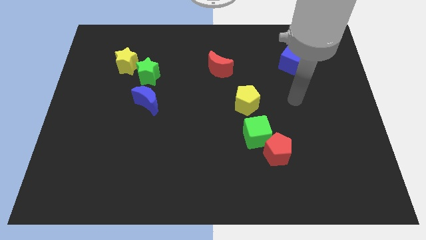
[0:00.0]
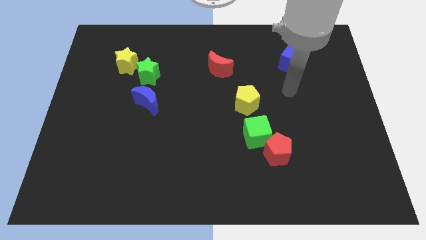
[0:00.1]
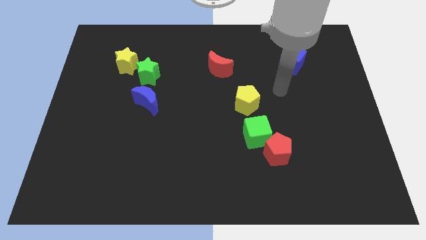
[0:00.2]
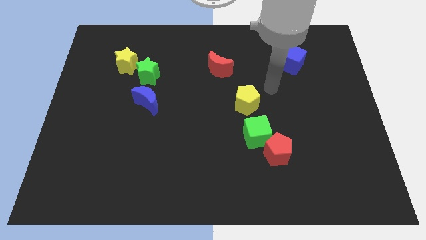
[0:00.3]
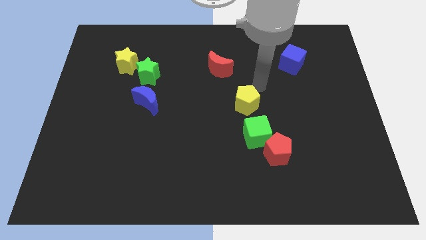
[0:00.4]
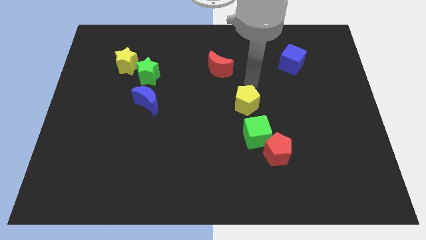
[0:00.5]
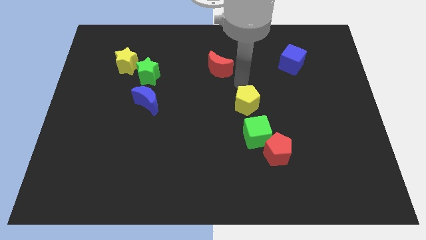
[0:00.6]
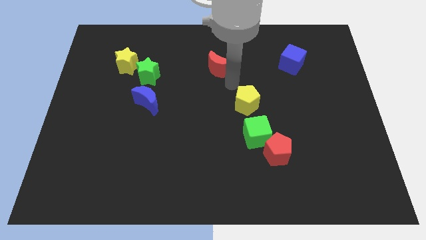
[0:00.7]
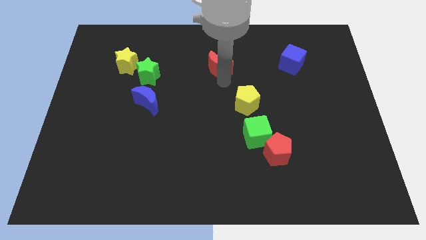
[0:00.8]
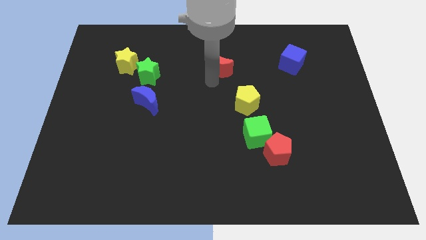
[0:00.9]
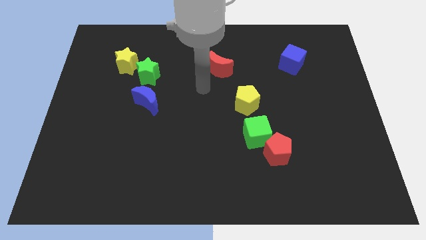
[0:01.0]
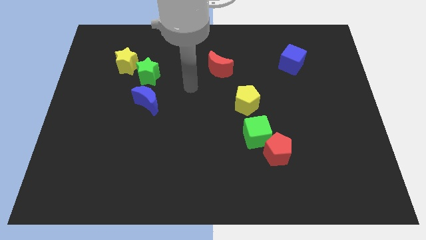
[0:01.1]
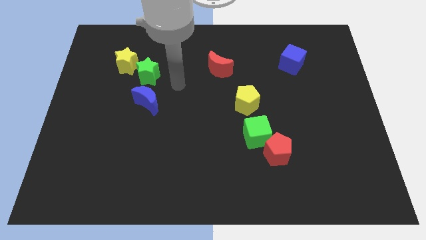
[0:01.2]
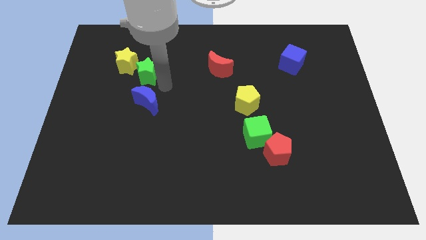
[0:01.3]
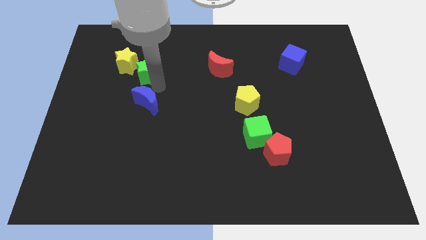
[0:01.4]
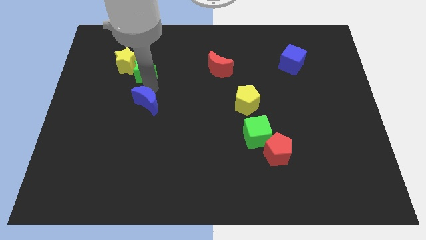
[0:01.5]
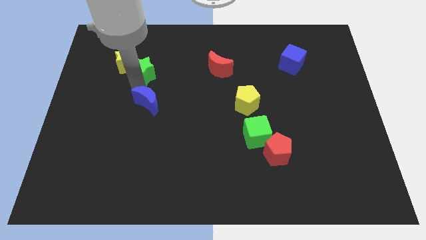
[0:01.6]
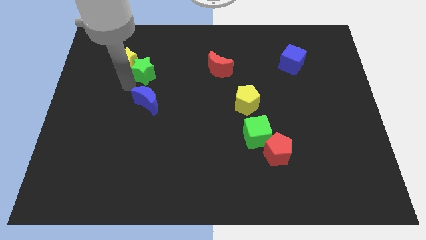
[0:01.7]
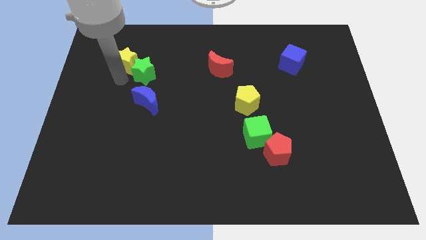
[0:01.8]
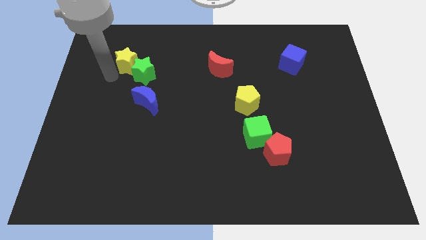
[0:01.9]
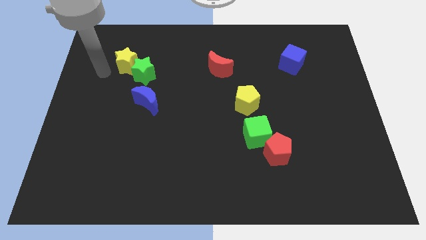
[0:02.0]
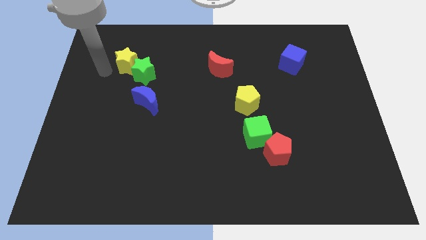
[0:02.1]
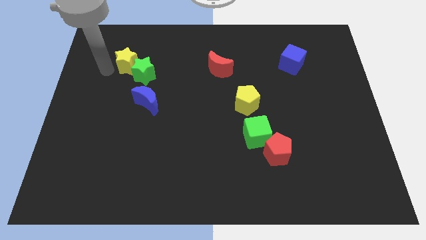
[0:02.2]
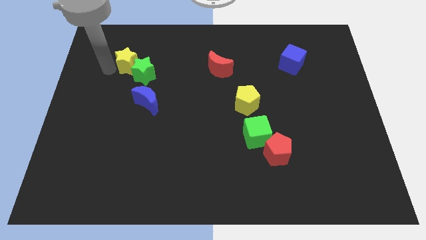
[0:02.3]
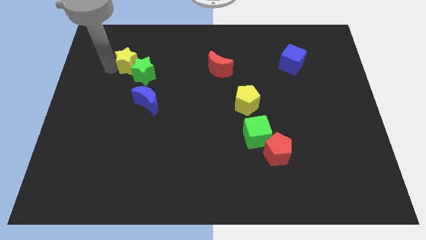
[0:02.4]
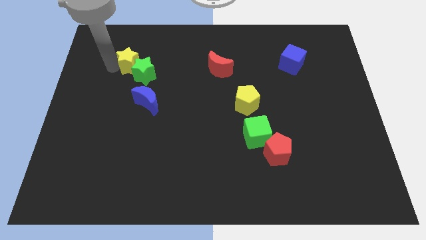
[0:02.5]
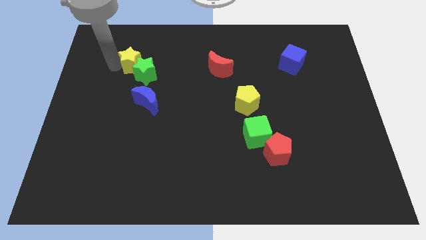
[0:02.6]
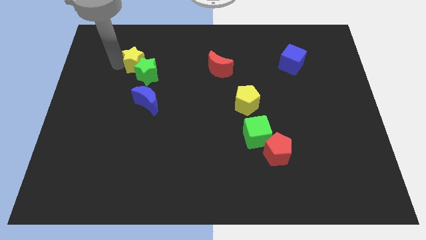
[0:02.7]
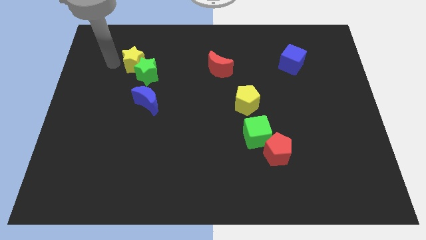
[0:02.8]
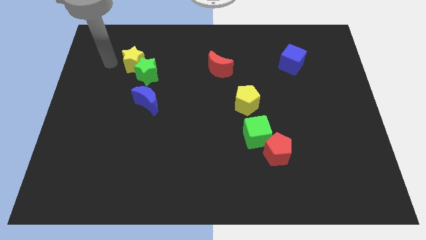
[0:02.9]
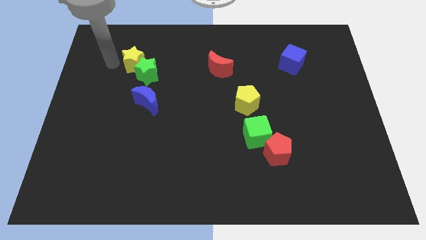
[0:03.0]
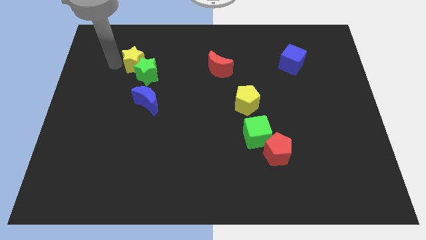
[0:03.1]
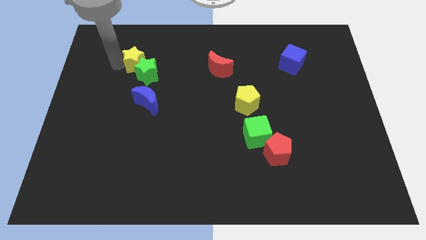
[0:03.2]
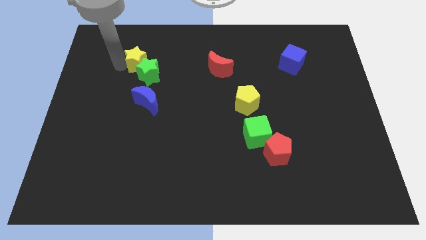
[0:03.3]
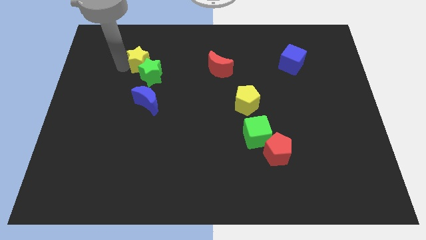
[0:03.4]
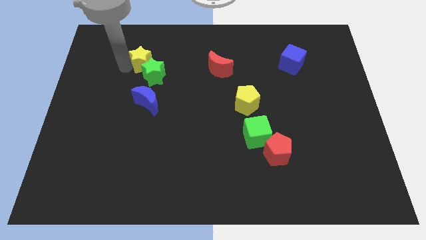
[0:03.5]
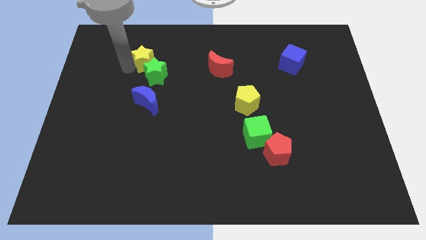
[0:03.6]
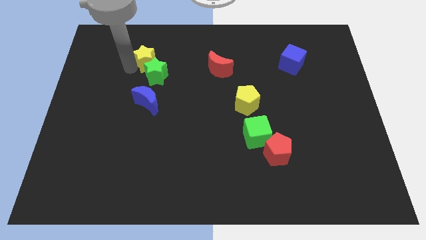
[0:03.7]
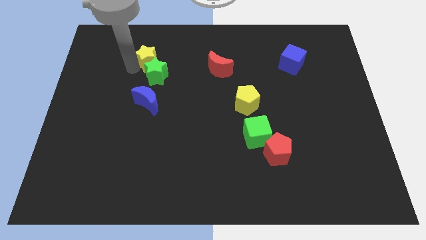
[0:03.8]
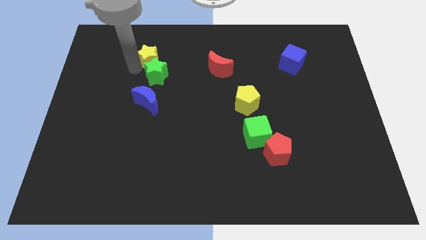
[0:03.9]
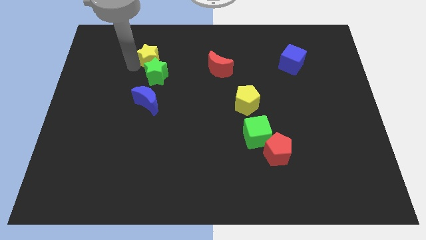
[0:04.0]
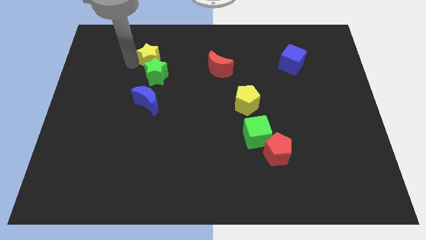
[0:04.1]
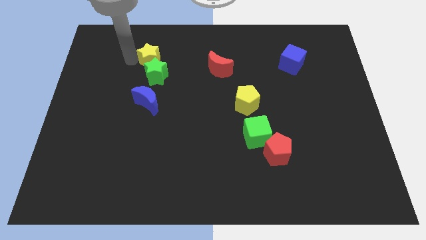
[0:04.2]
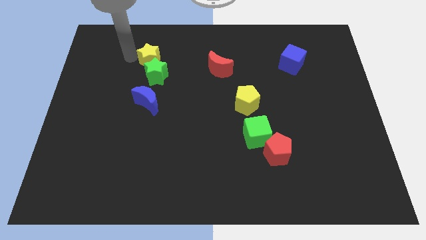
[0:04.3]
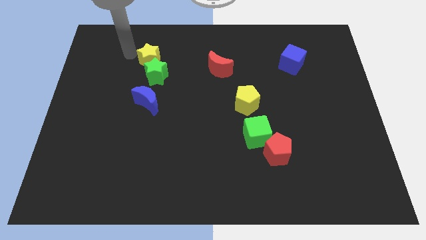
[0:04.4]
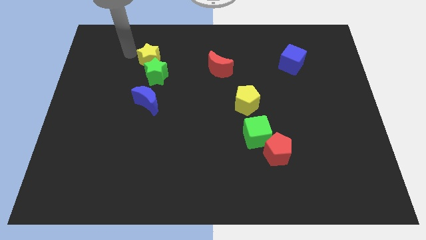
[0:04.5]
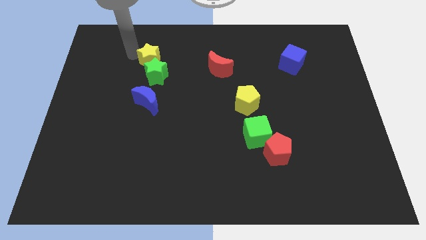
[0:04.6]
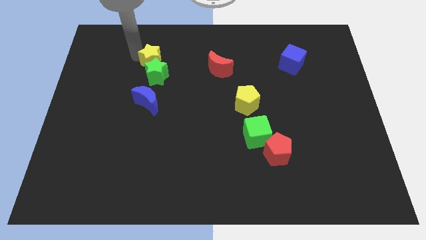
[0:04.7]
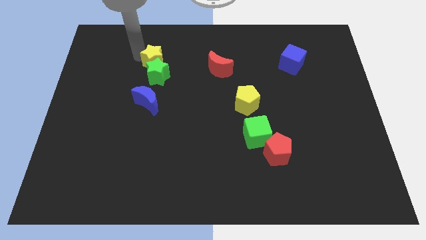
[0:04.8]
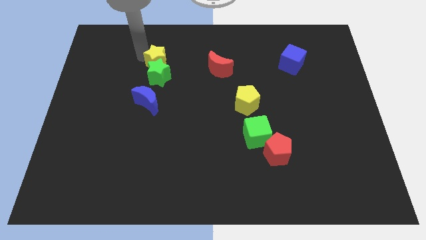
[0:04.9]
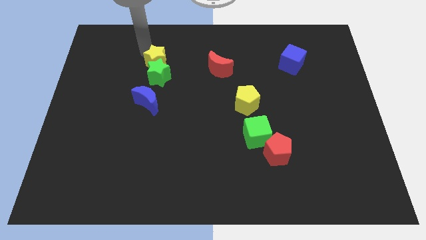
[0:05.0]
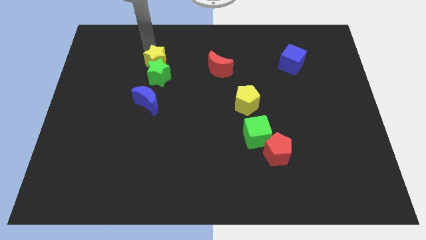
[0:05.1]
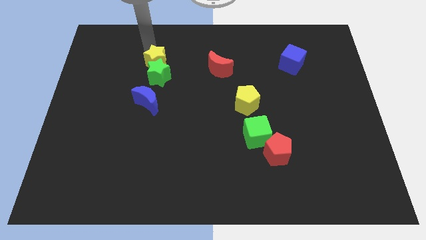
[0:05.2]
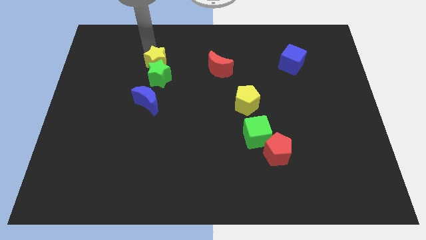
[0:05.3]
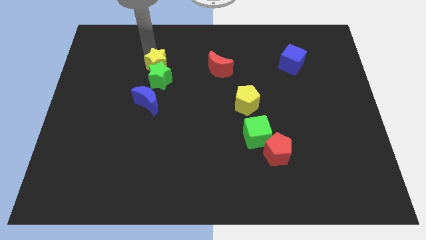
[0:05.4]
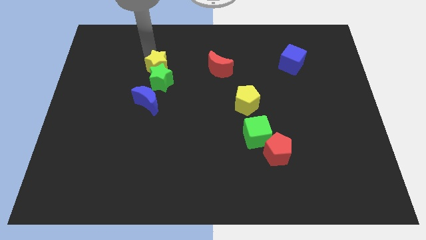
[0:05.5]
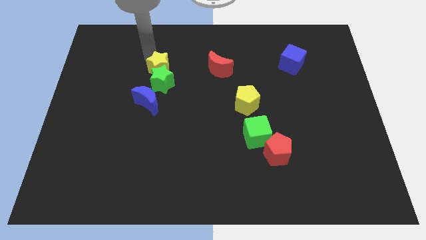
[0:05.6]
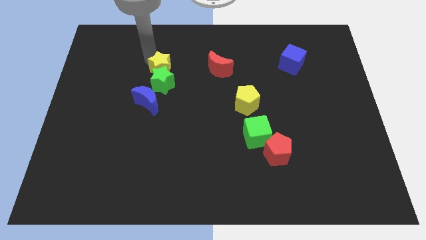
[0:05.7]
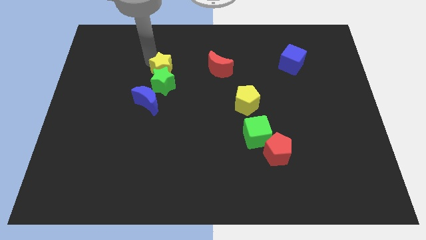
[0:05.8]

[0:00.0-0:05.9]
move the yellow star downwards and right somewhat

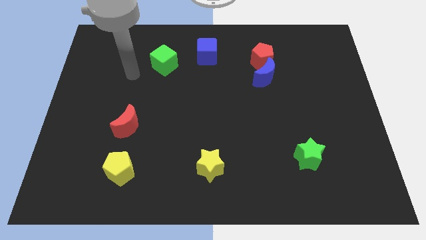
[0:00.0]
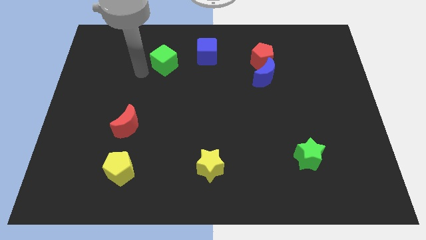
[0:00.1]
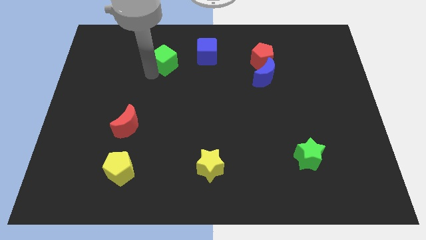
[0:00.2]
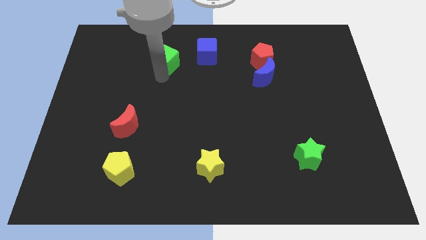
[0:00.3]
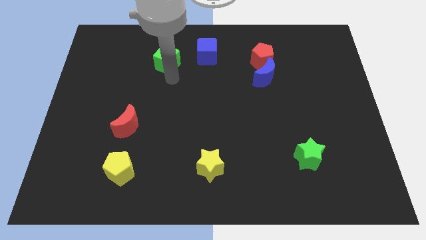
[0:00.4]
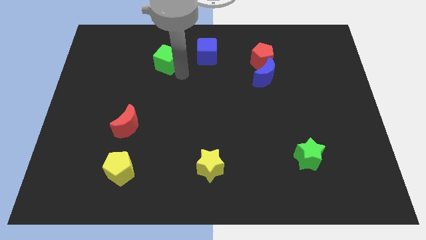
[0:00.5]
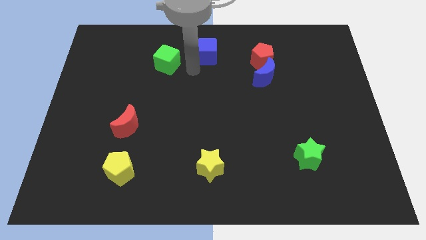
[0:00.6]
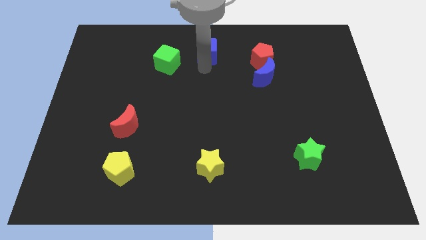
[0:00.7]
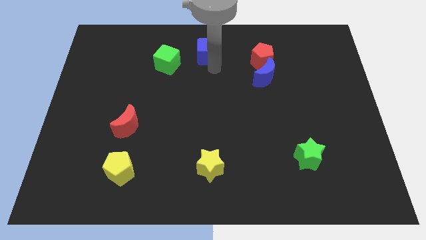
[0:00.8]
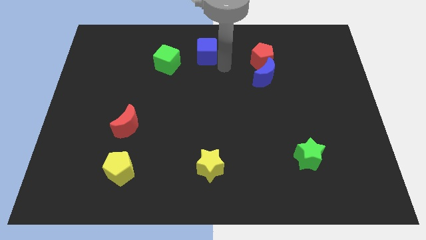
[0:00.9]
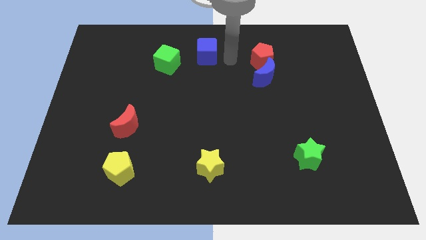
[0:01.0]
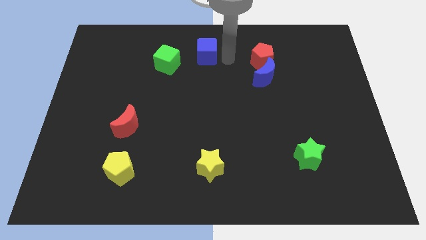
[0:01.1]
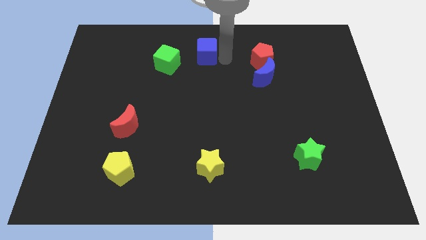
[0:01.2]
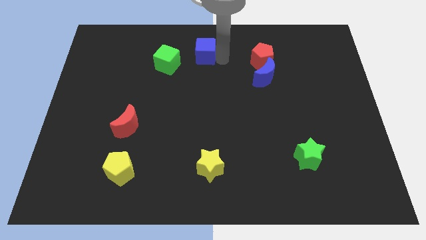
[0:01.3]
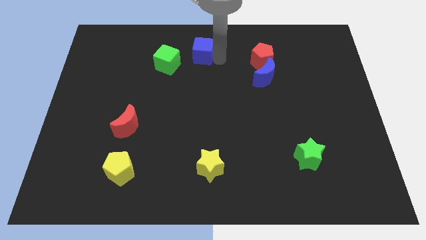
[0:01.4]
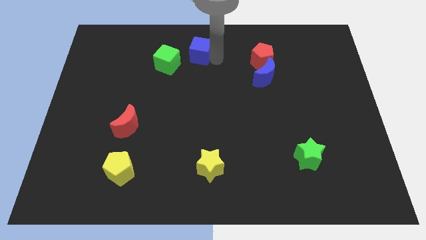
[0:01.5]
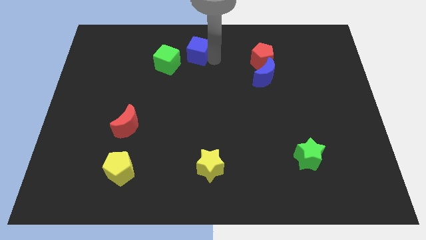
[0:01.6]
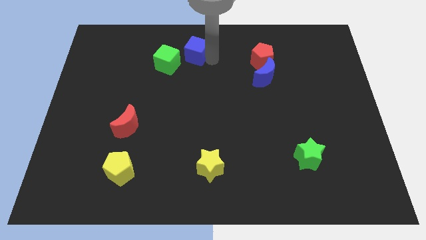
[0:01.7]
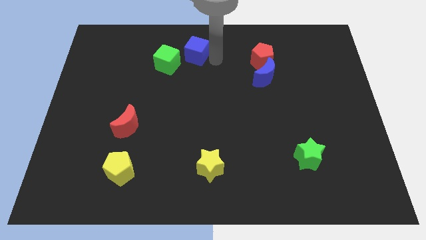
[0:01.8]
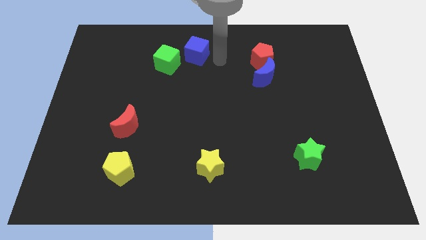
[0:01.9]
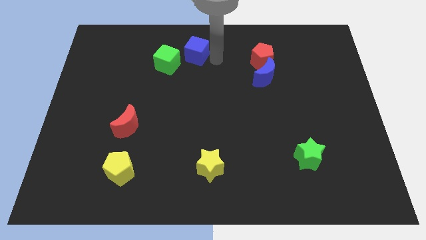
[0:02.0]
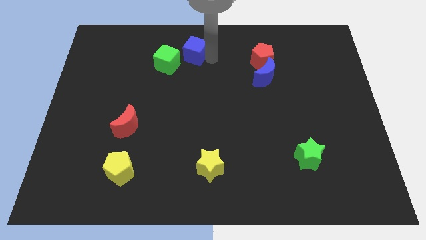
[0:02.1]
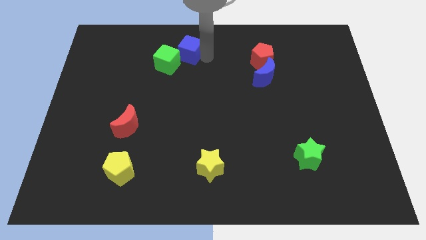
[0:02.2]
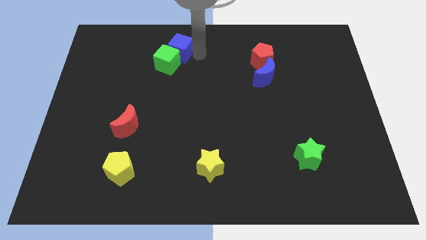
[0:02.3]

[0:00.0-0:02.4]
slide the blue cube to the left a little bit
